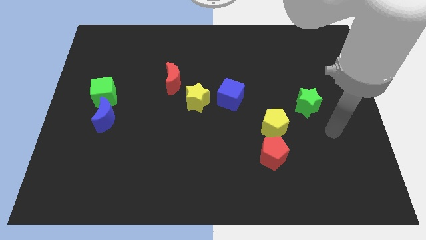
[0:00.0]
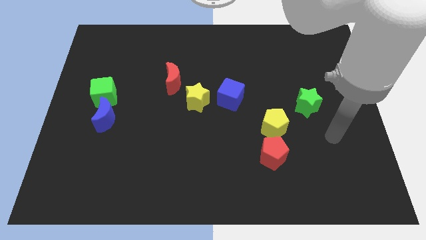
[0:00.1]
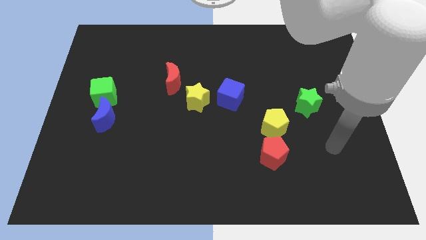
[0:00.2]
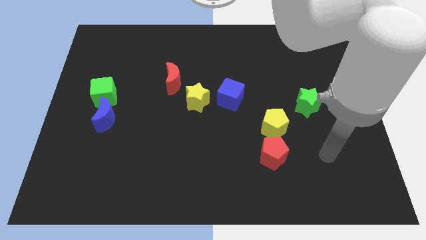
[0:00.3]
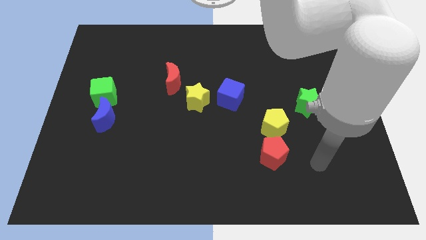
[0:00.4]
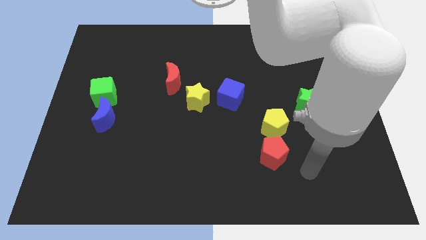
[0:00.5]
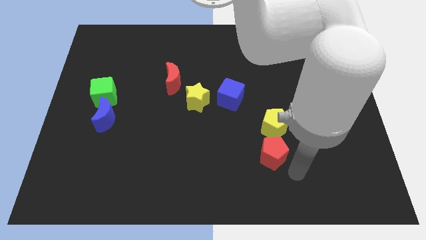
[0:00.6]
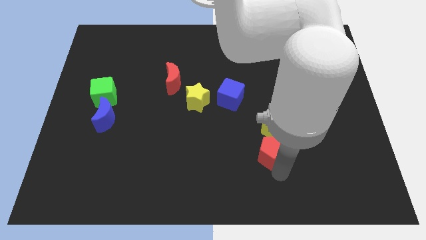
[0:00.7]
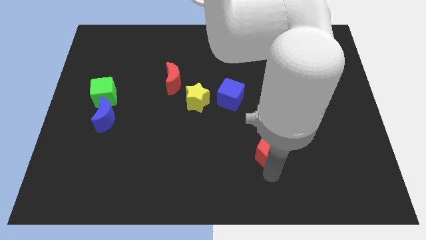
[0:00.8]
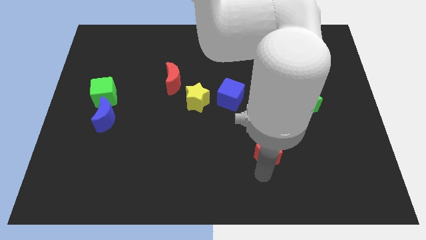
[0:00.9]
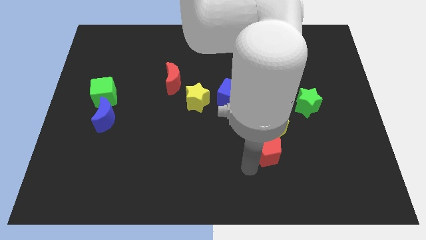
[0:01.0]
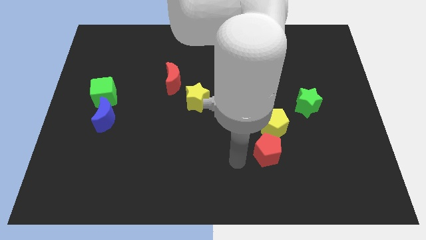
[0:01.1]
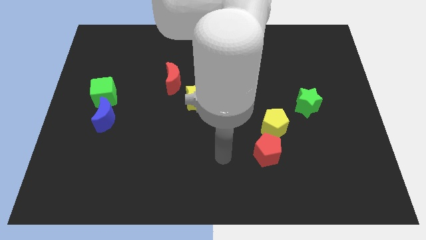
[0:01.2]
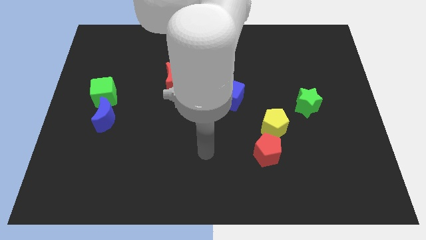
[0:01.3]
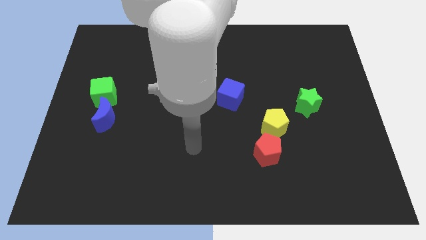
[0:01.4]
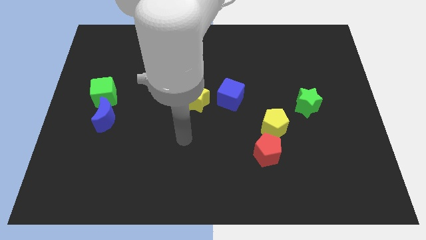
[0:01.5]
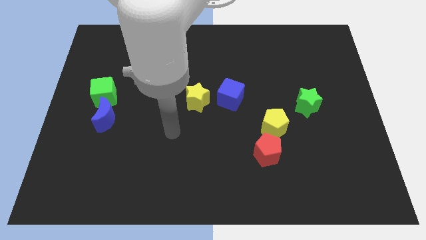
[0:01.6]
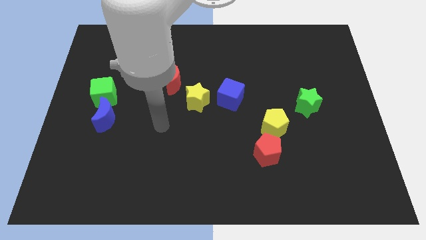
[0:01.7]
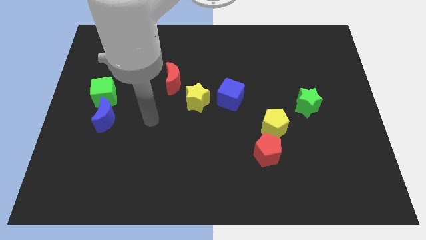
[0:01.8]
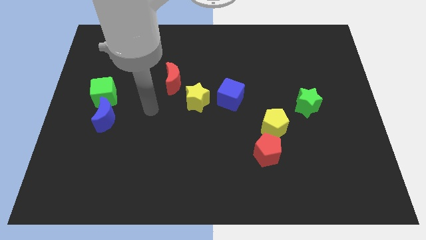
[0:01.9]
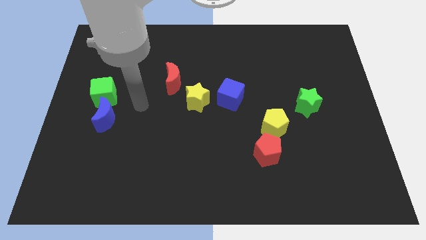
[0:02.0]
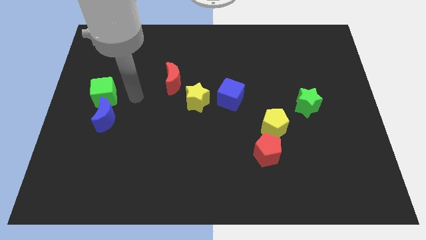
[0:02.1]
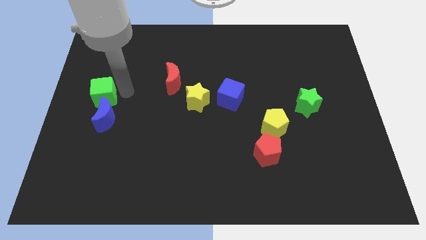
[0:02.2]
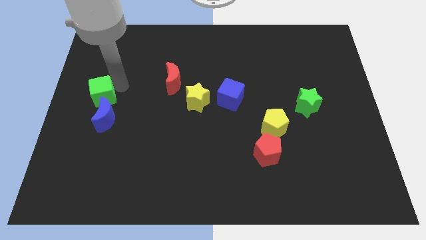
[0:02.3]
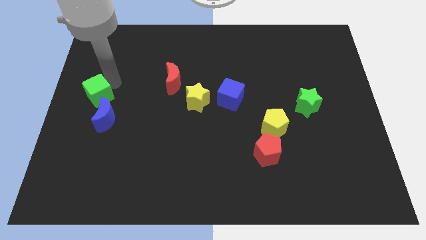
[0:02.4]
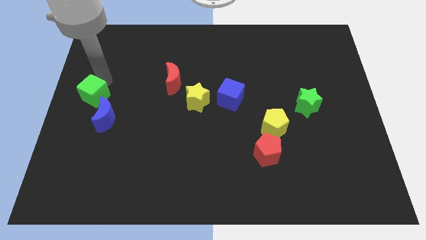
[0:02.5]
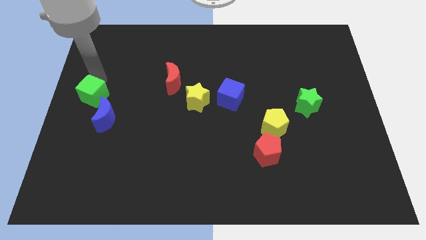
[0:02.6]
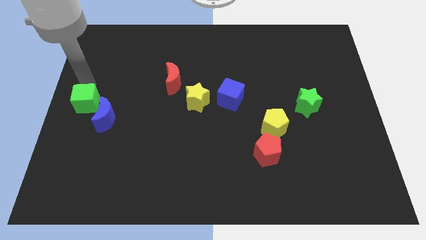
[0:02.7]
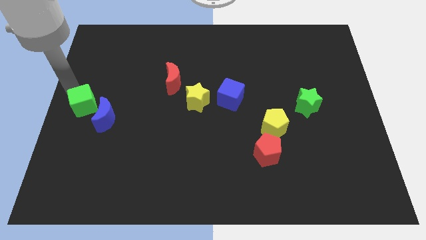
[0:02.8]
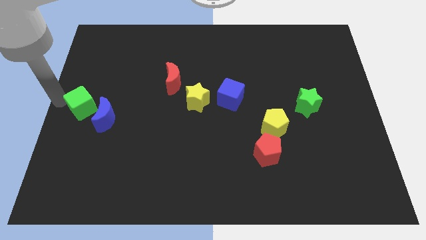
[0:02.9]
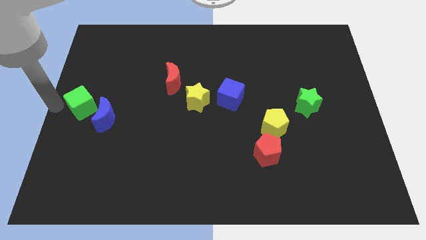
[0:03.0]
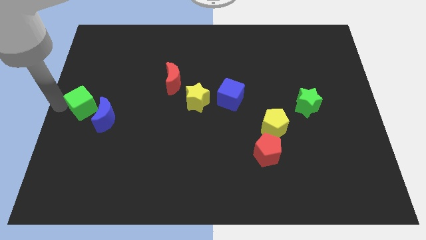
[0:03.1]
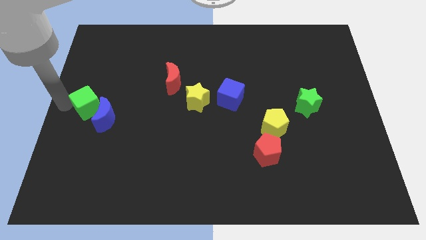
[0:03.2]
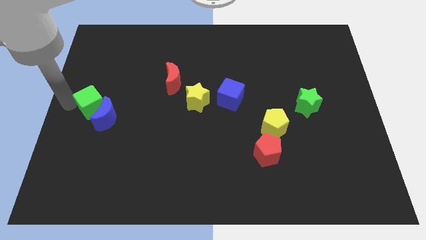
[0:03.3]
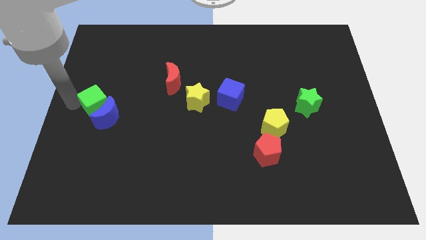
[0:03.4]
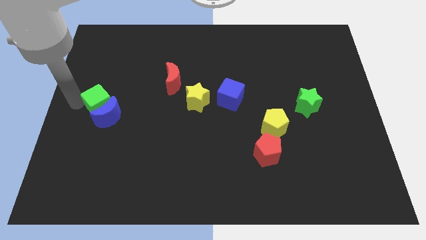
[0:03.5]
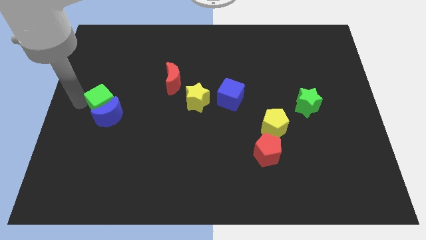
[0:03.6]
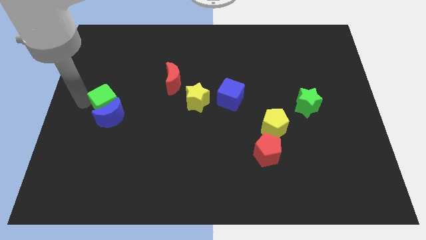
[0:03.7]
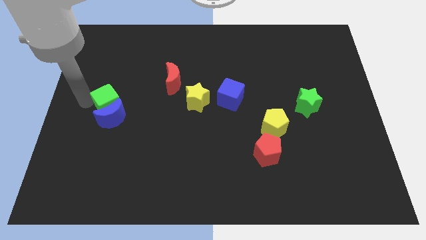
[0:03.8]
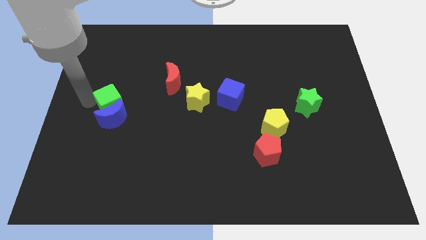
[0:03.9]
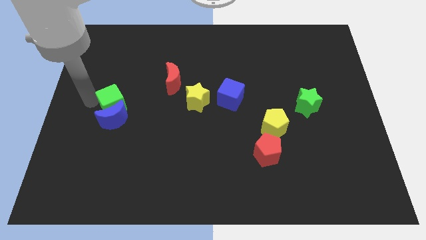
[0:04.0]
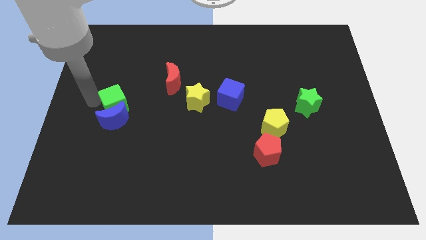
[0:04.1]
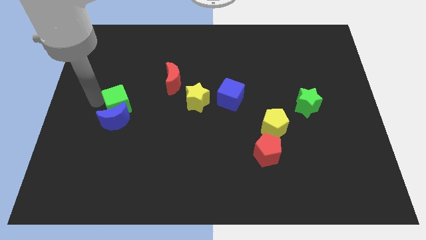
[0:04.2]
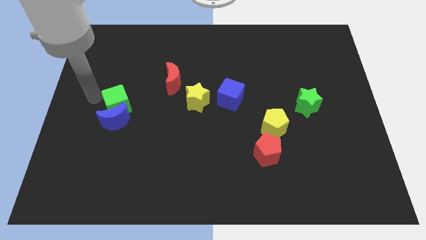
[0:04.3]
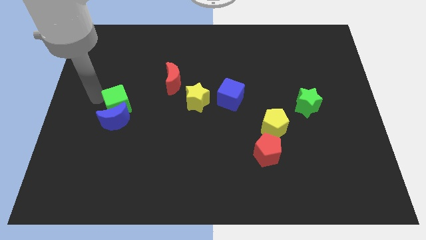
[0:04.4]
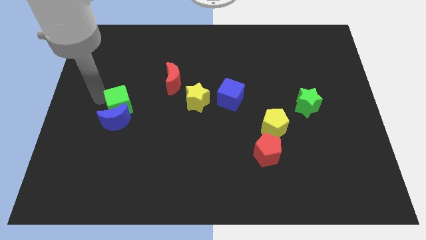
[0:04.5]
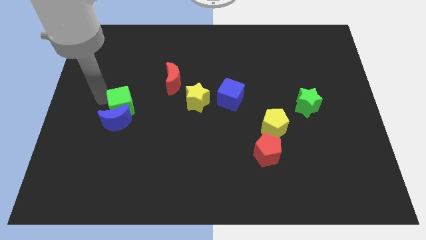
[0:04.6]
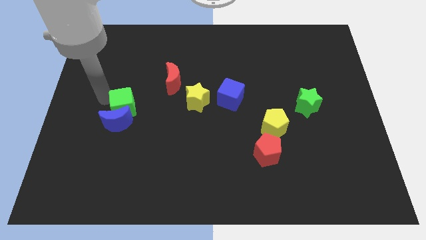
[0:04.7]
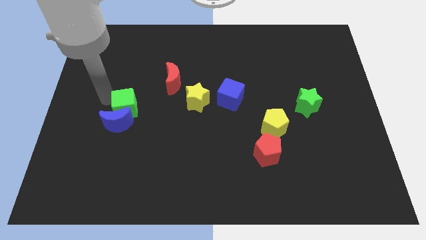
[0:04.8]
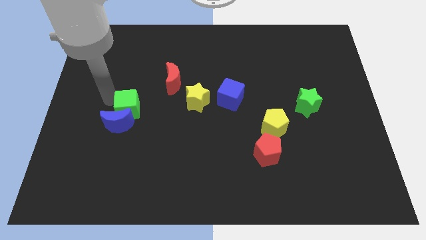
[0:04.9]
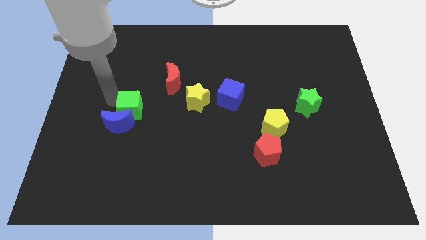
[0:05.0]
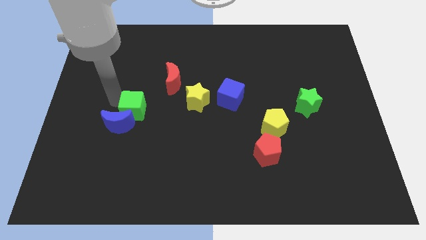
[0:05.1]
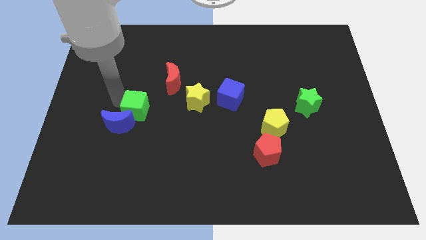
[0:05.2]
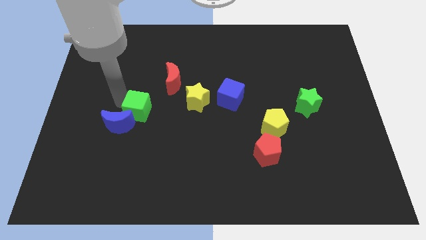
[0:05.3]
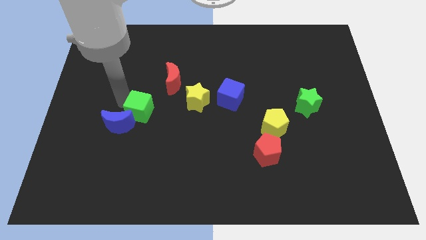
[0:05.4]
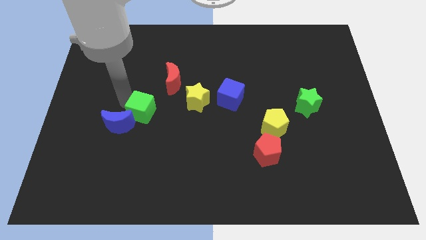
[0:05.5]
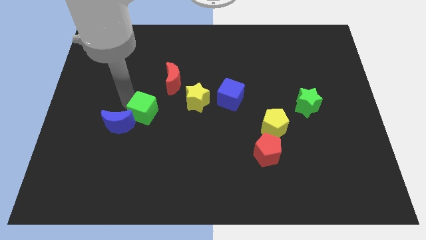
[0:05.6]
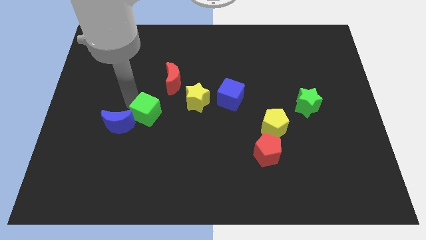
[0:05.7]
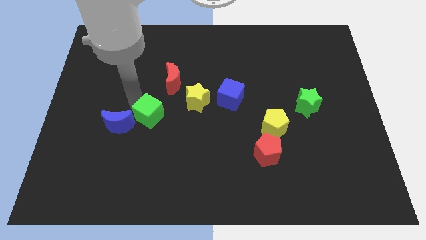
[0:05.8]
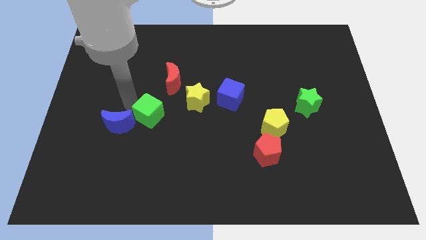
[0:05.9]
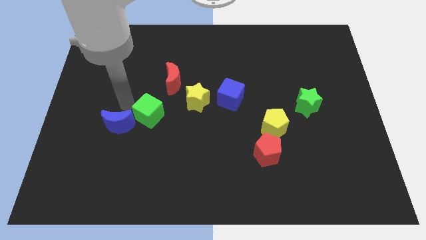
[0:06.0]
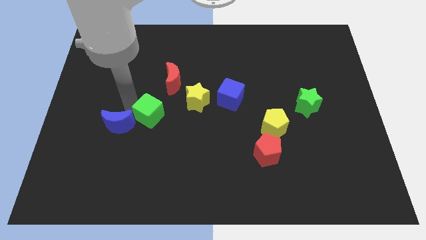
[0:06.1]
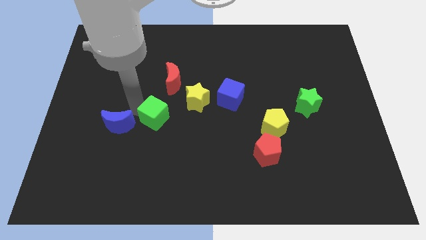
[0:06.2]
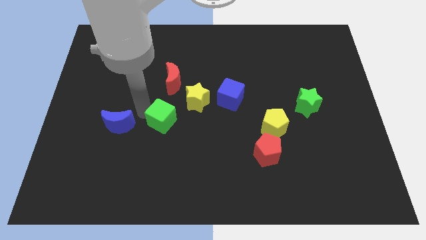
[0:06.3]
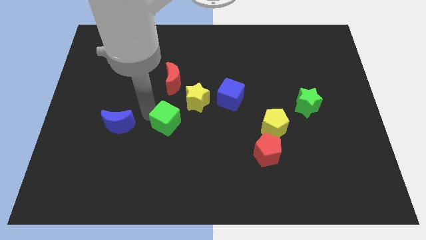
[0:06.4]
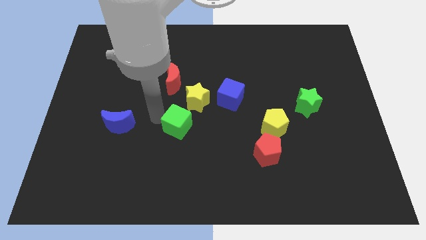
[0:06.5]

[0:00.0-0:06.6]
put the green cube to the bottom of the yellow star
